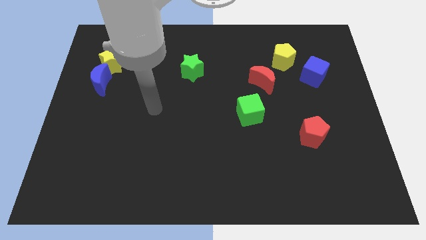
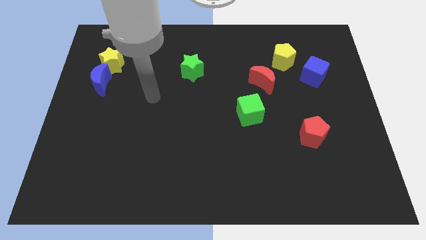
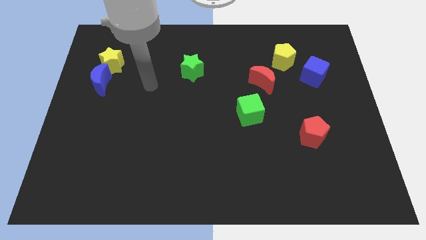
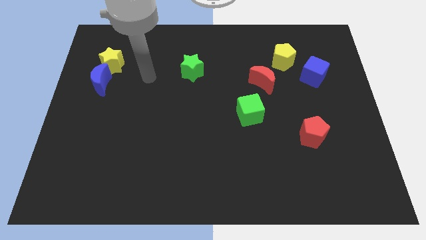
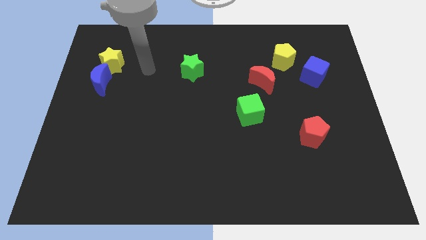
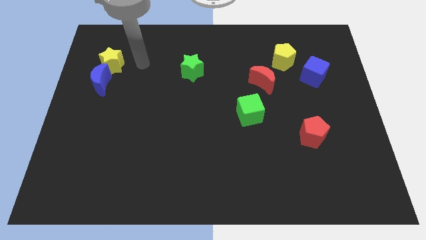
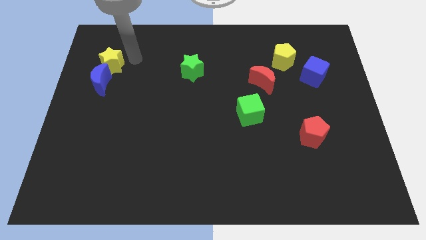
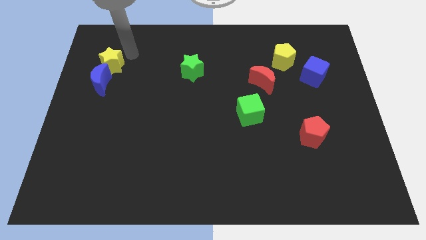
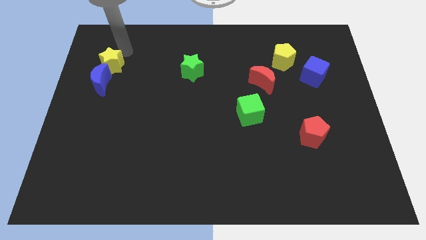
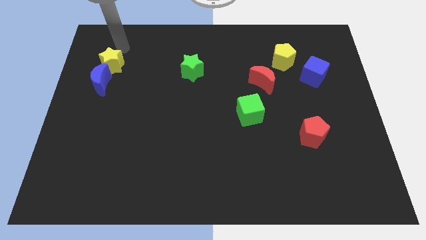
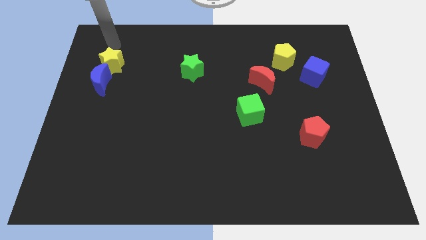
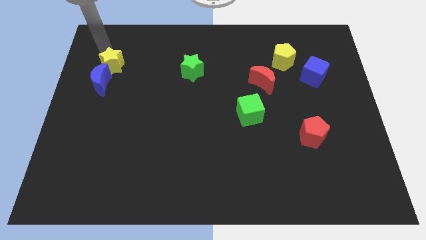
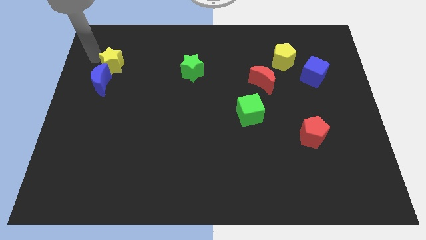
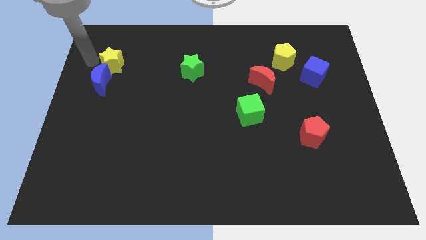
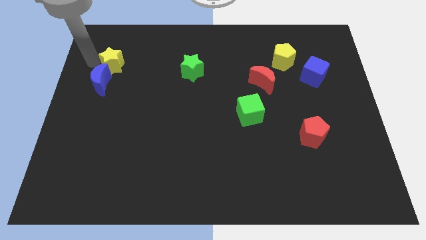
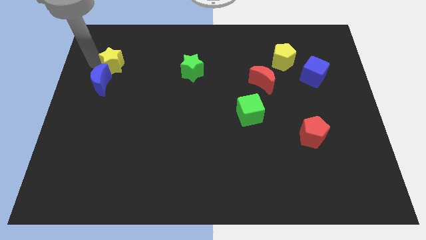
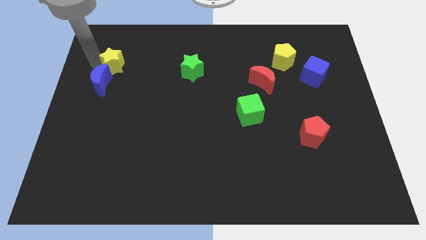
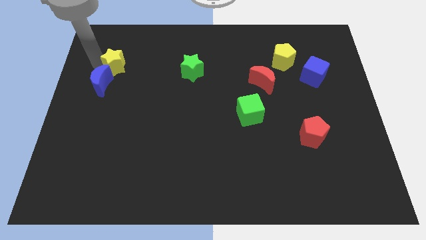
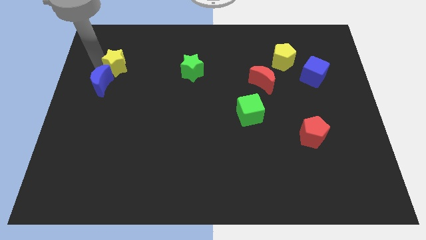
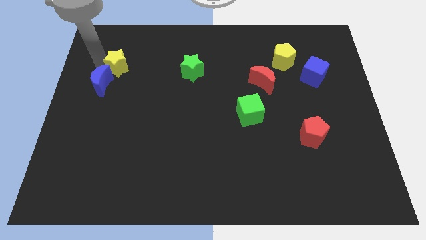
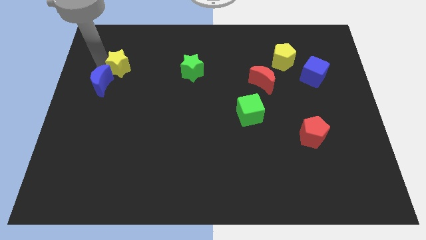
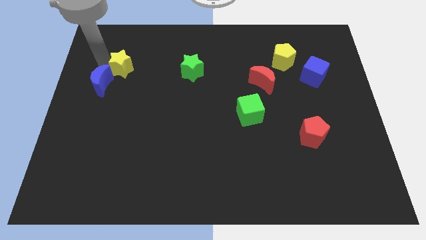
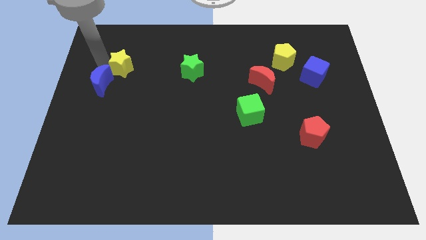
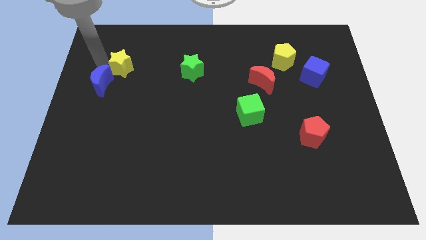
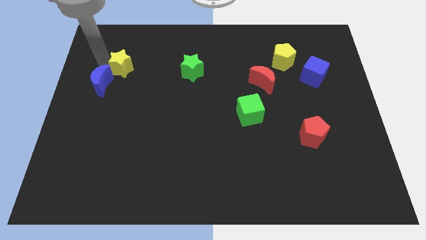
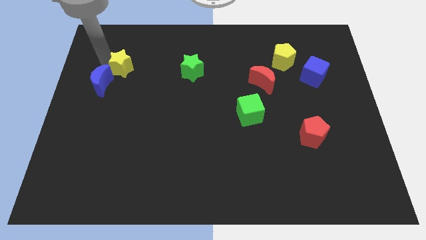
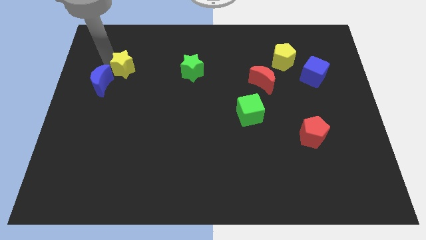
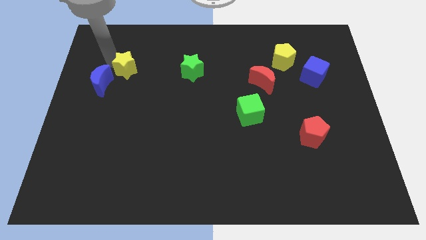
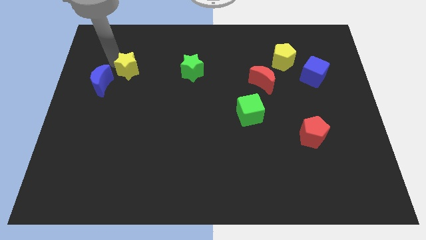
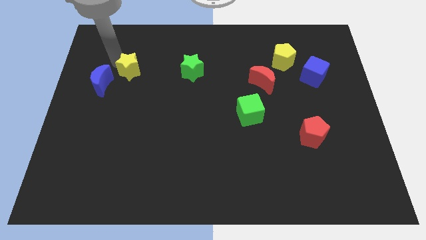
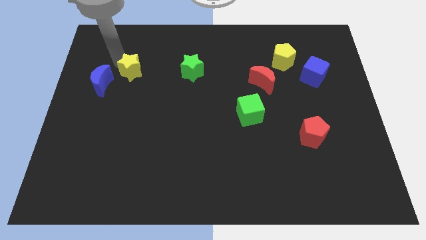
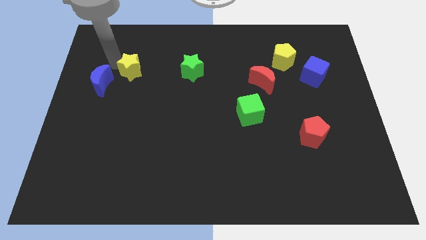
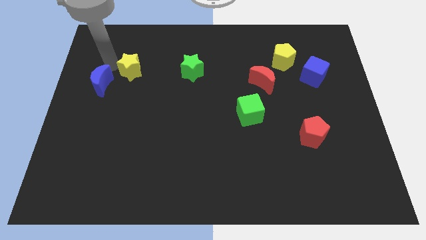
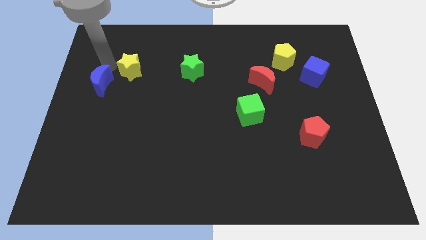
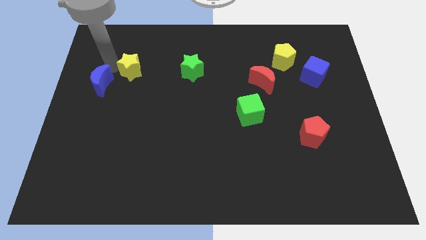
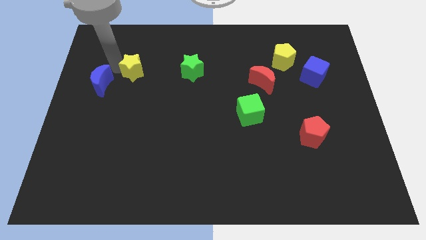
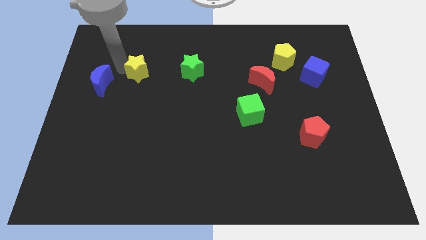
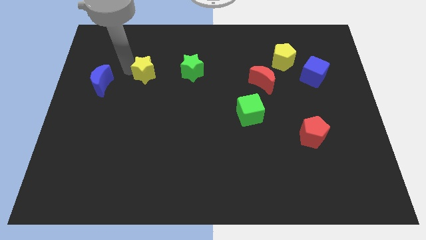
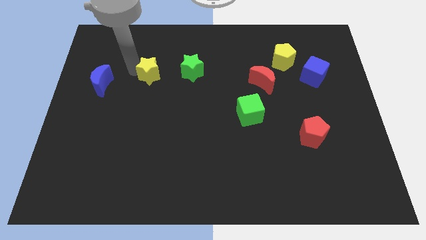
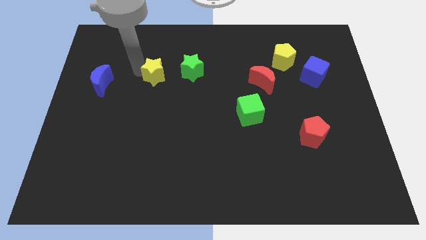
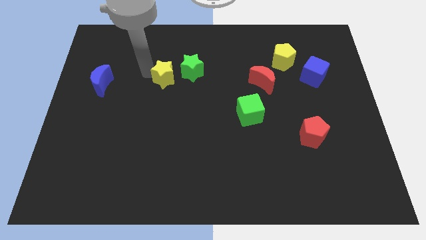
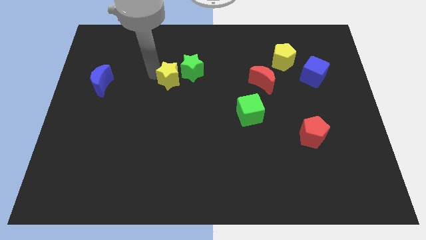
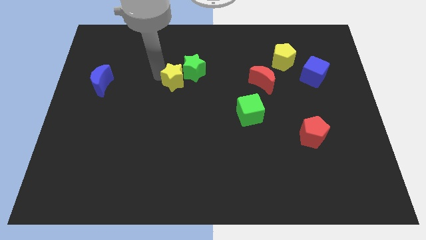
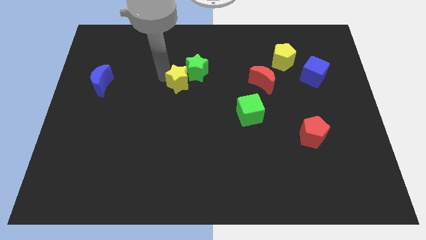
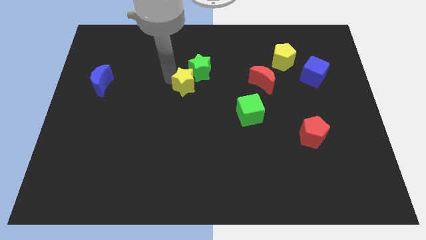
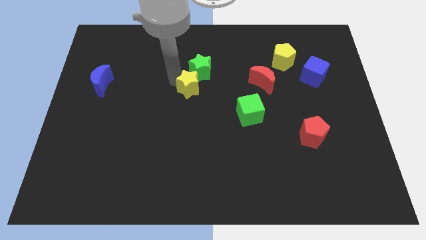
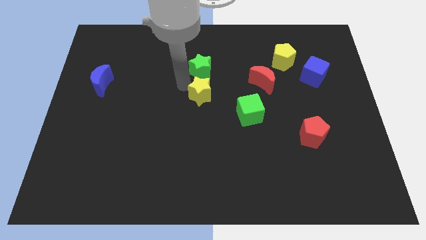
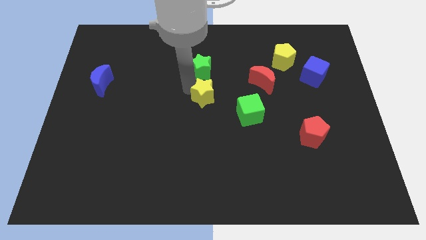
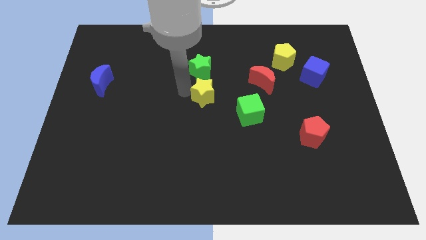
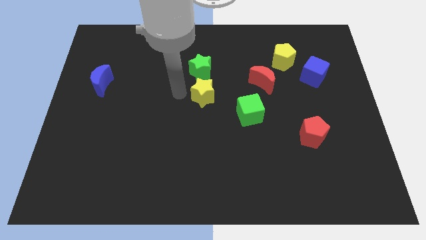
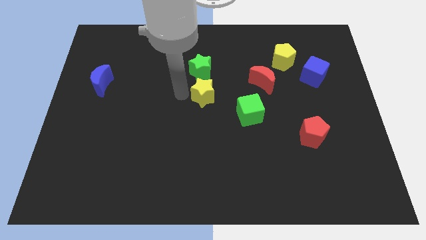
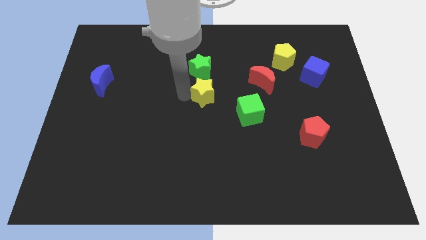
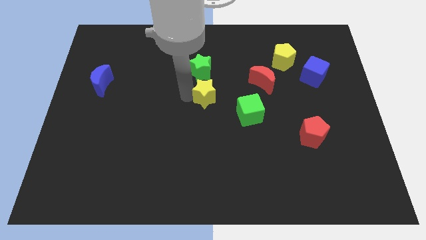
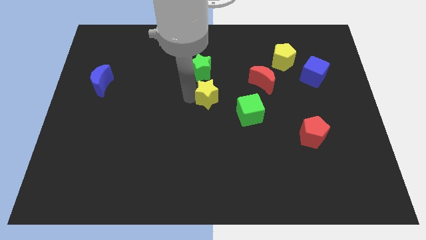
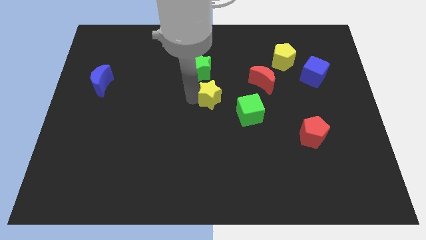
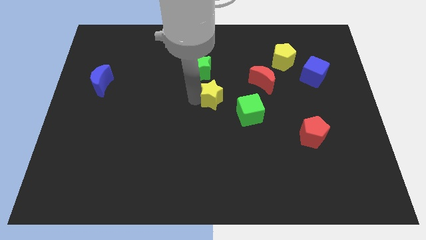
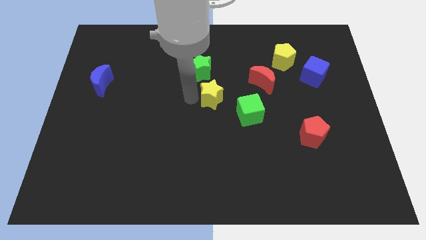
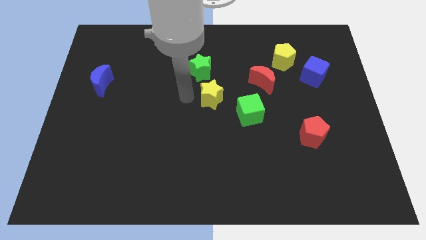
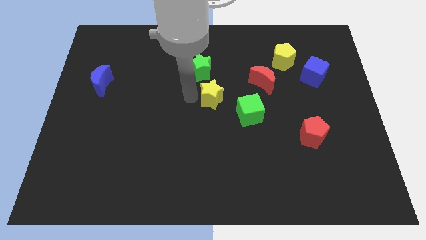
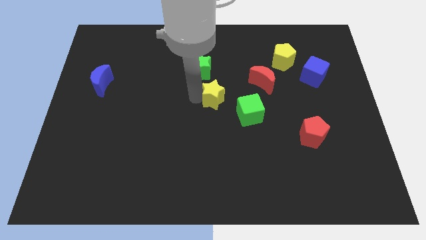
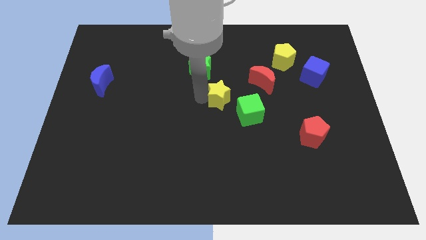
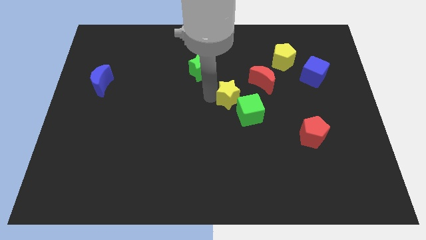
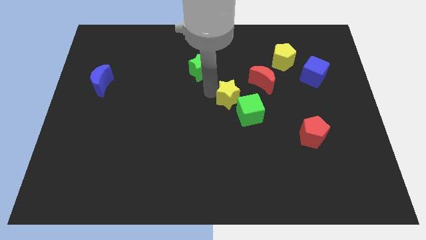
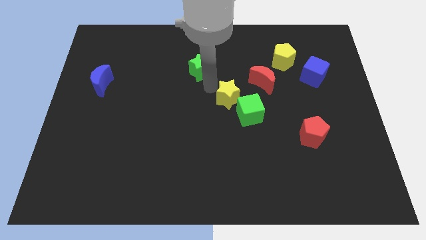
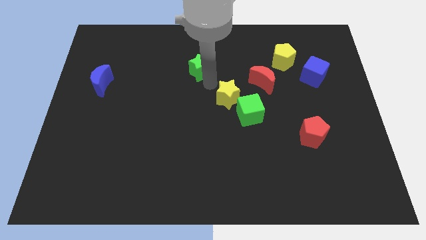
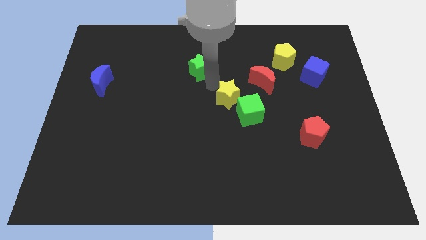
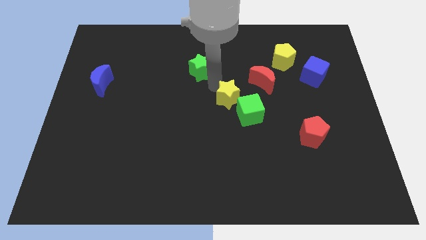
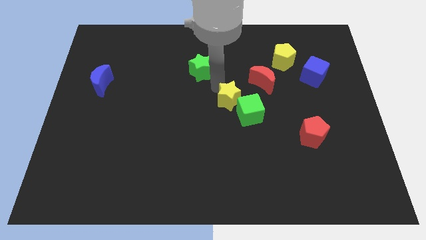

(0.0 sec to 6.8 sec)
slide the yellow star towards the green cube
